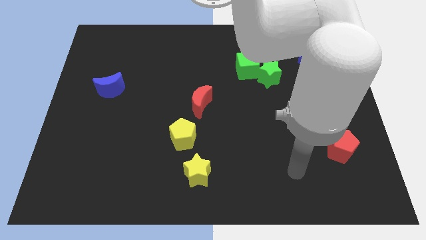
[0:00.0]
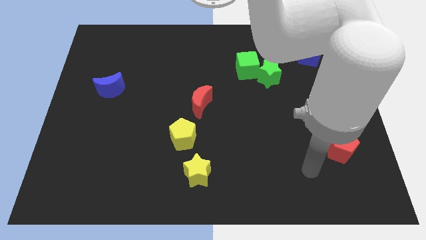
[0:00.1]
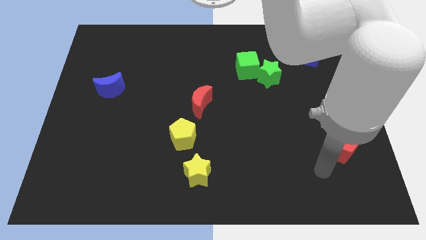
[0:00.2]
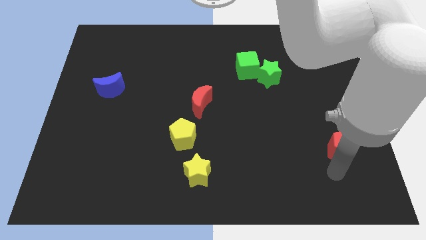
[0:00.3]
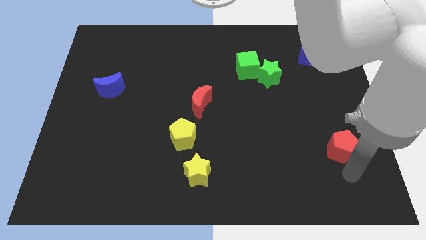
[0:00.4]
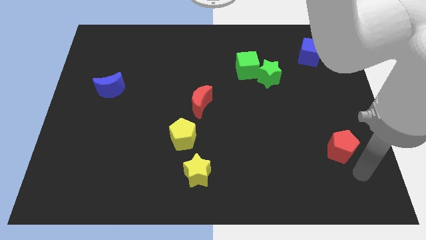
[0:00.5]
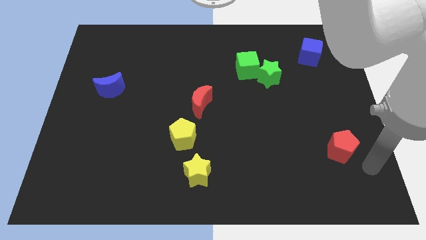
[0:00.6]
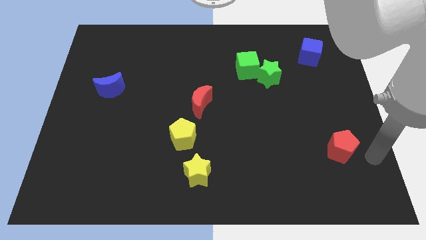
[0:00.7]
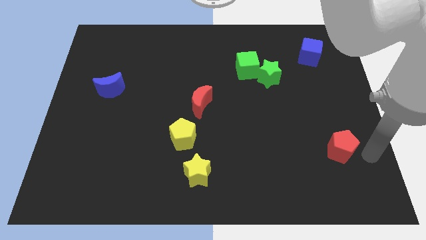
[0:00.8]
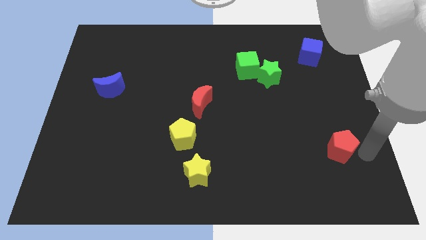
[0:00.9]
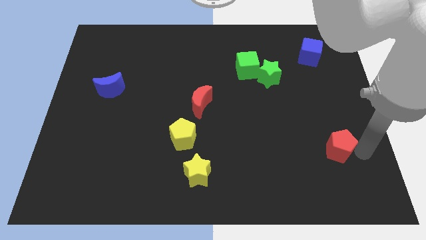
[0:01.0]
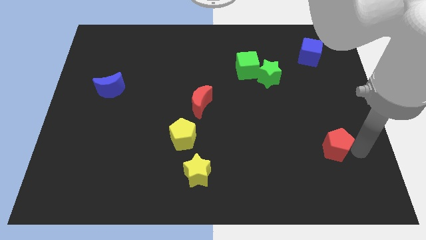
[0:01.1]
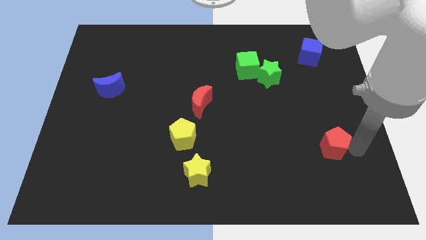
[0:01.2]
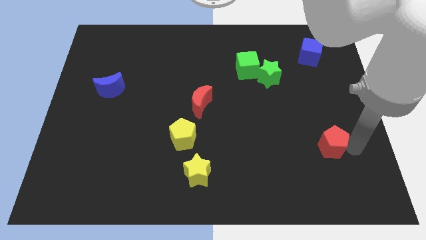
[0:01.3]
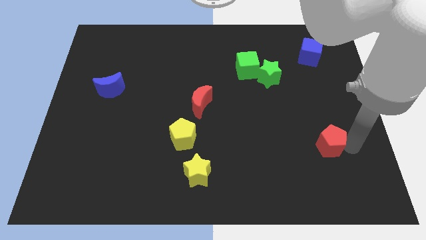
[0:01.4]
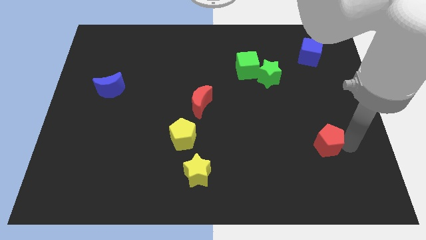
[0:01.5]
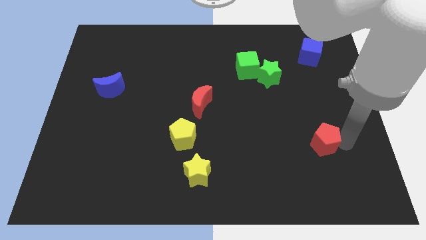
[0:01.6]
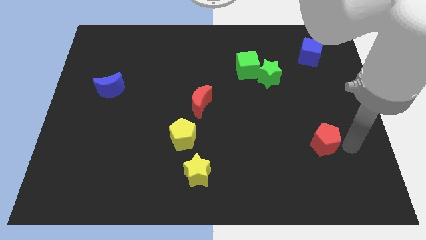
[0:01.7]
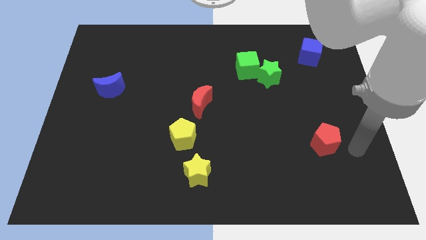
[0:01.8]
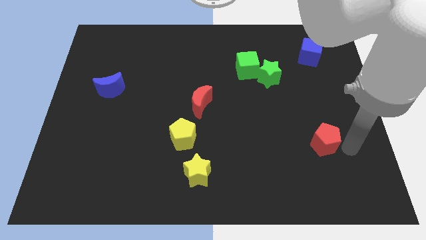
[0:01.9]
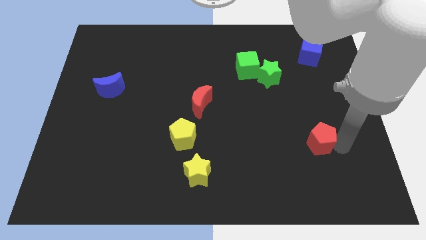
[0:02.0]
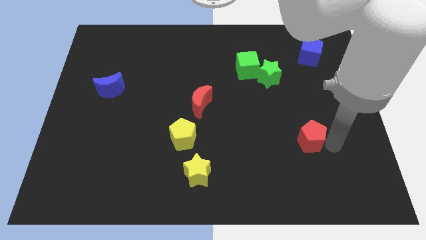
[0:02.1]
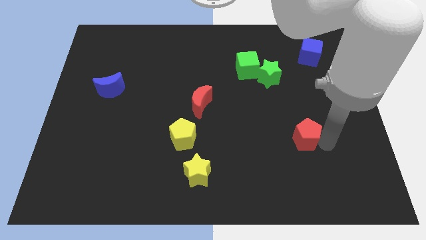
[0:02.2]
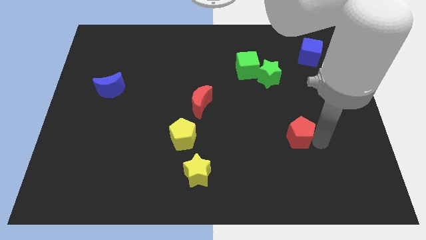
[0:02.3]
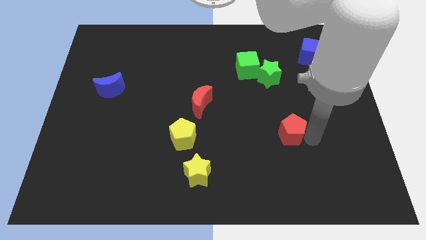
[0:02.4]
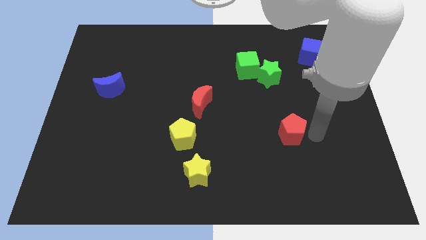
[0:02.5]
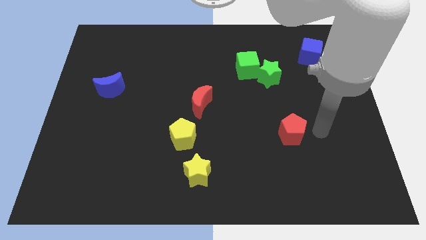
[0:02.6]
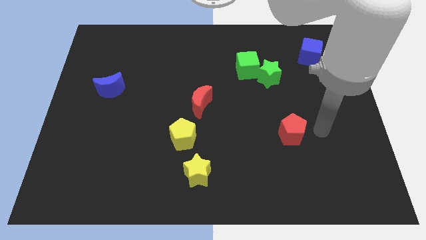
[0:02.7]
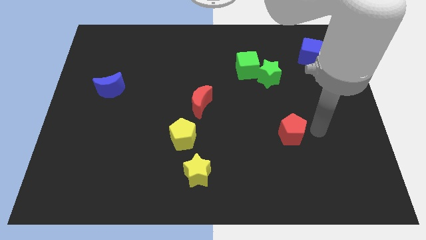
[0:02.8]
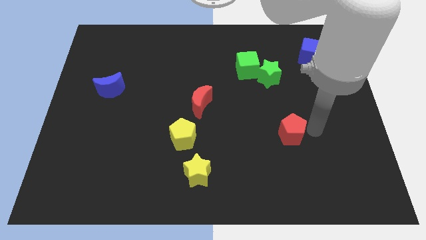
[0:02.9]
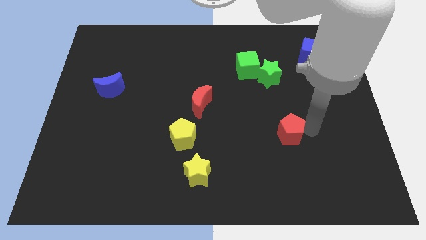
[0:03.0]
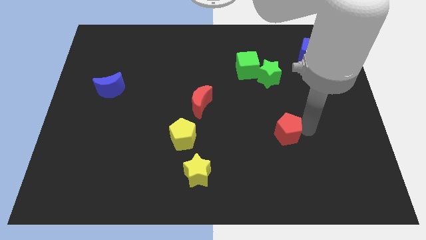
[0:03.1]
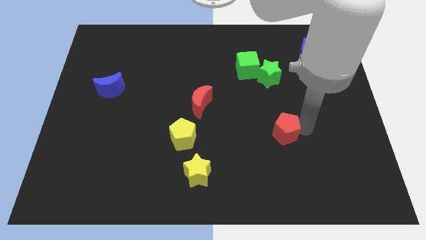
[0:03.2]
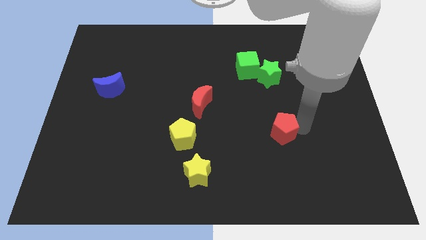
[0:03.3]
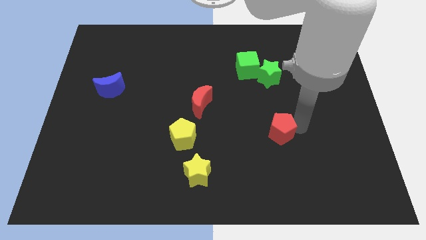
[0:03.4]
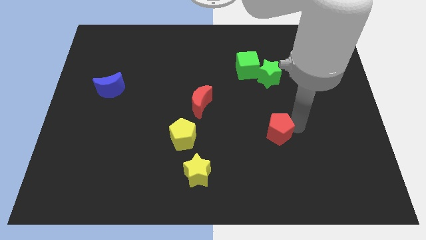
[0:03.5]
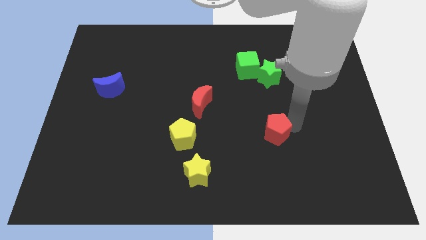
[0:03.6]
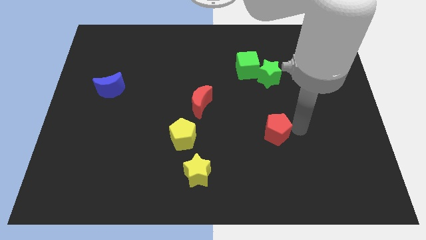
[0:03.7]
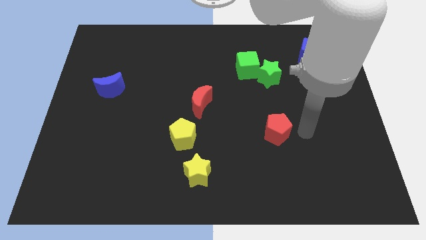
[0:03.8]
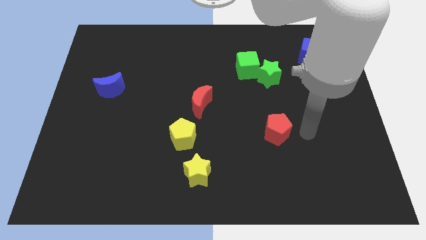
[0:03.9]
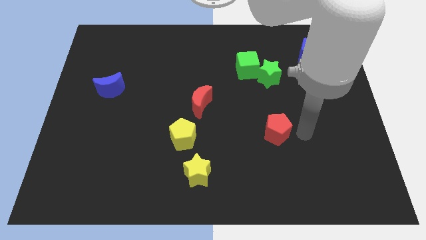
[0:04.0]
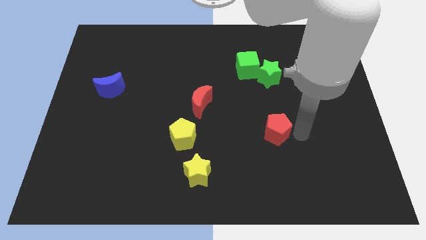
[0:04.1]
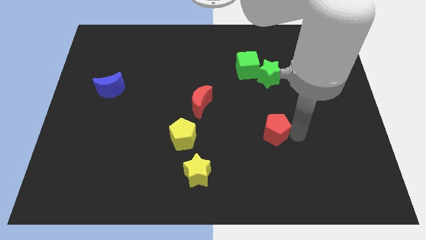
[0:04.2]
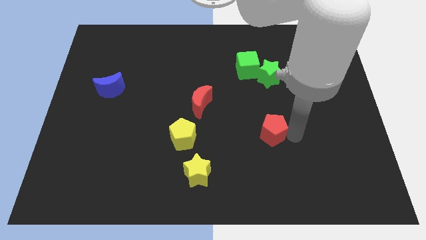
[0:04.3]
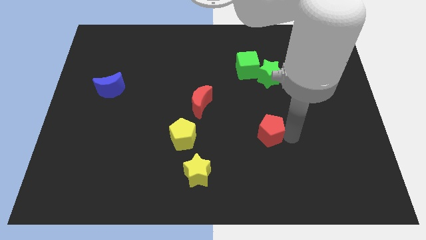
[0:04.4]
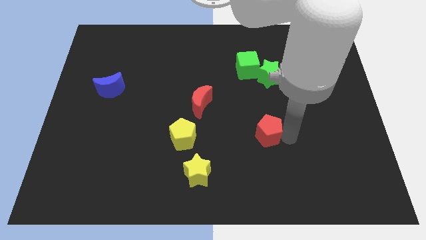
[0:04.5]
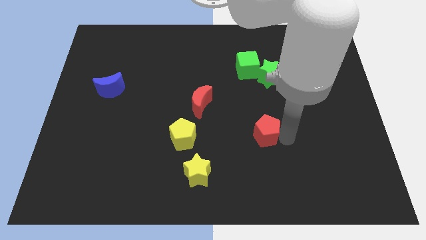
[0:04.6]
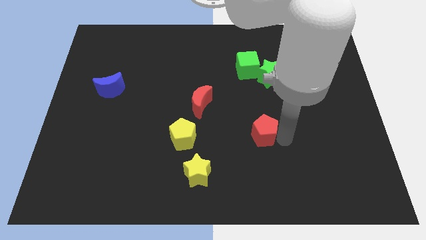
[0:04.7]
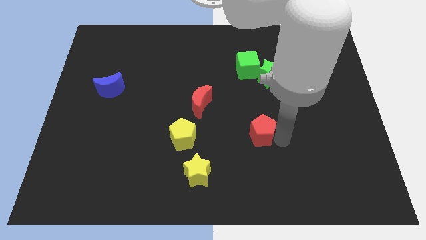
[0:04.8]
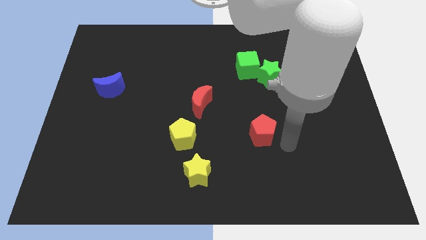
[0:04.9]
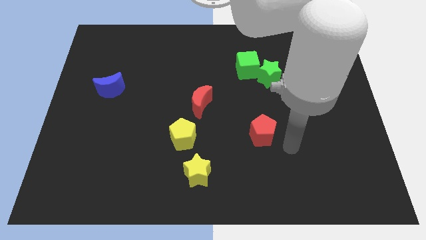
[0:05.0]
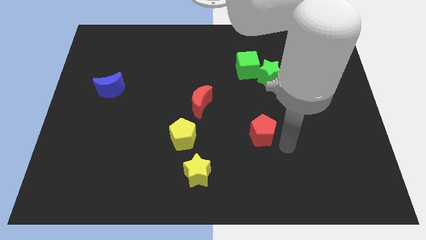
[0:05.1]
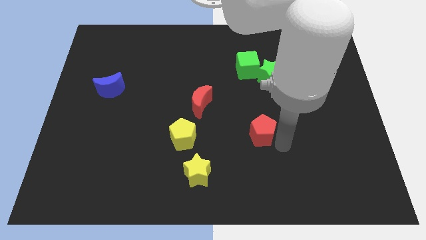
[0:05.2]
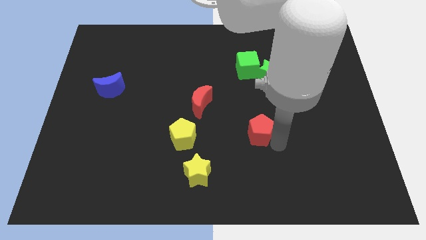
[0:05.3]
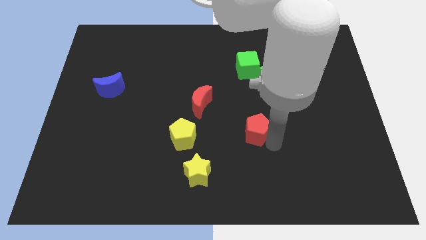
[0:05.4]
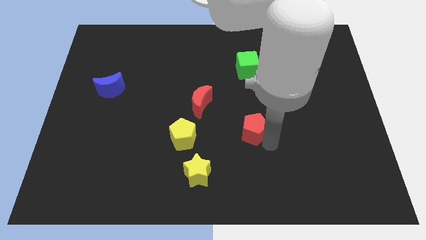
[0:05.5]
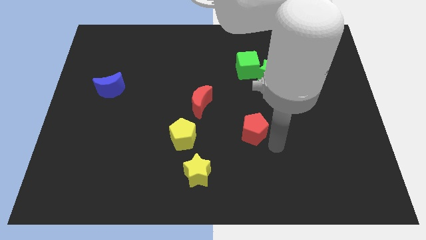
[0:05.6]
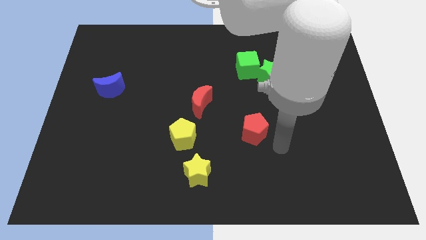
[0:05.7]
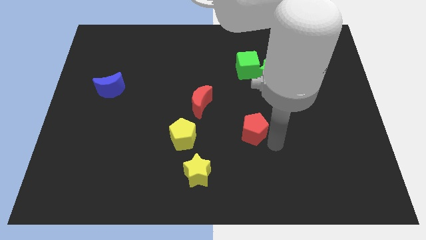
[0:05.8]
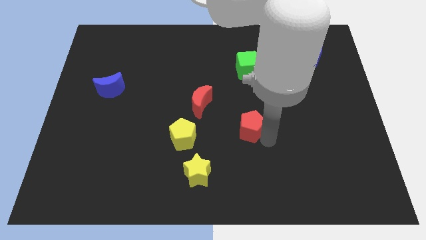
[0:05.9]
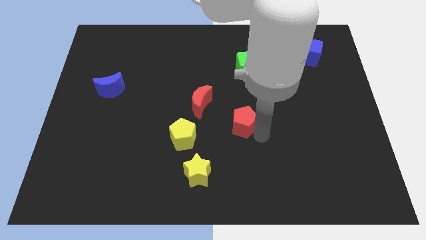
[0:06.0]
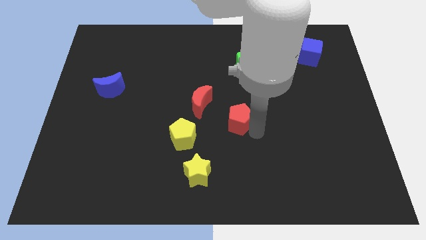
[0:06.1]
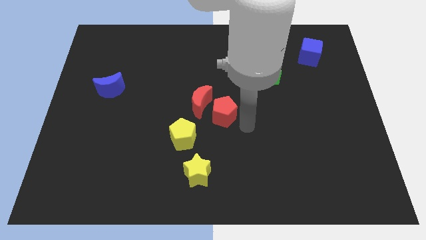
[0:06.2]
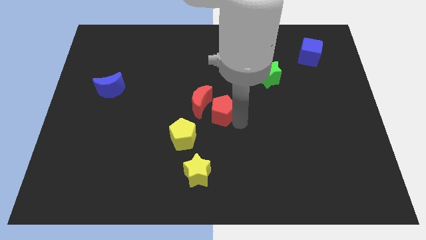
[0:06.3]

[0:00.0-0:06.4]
push the red pentagon to the red moon
